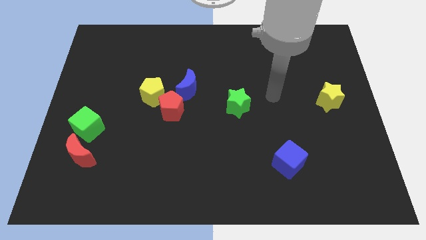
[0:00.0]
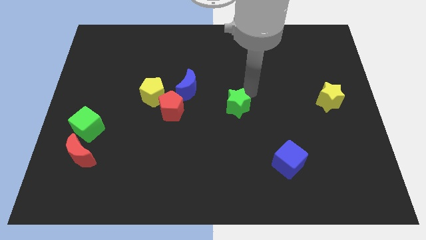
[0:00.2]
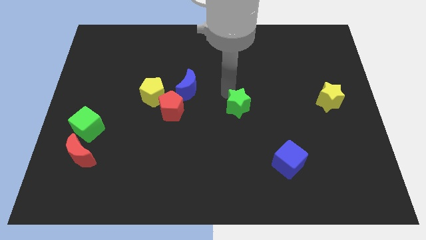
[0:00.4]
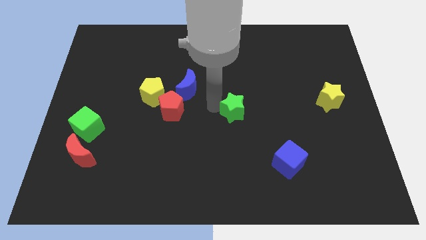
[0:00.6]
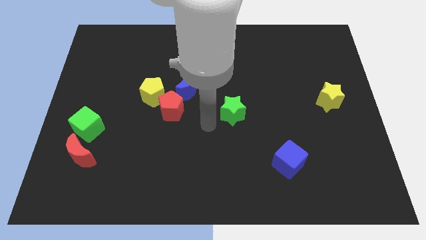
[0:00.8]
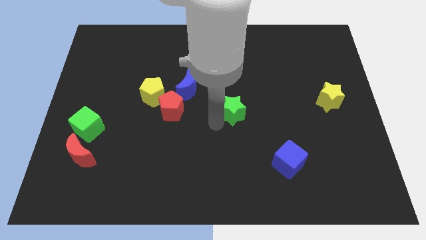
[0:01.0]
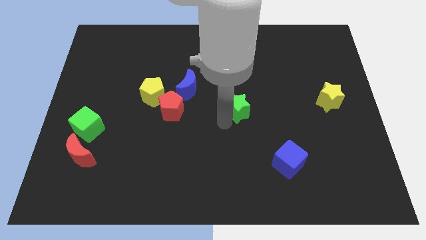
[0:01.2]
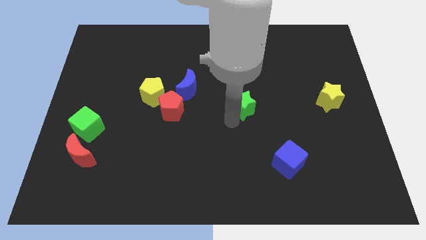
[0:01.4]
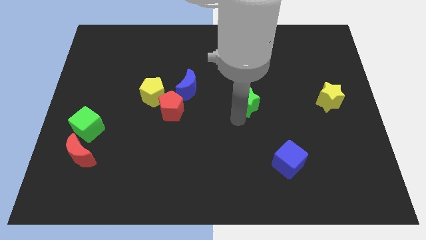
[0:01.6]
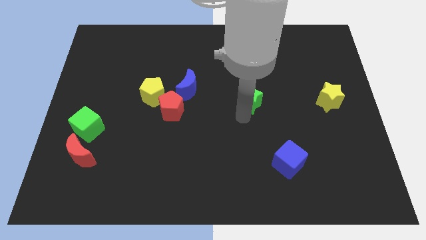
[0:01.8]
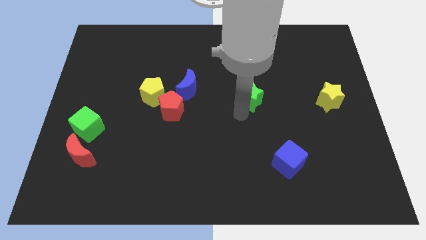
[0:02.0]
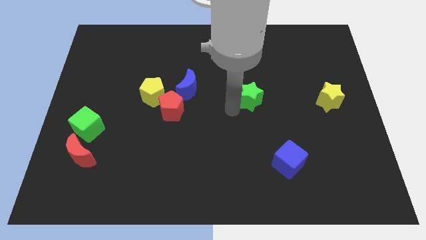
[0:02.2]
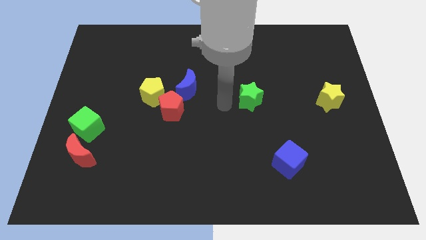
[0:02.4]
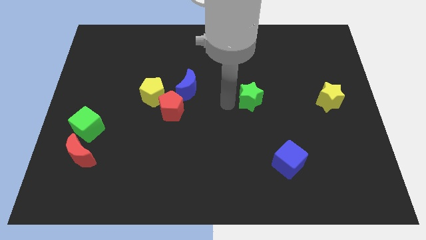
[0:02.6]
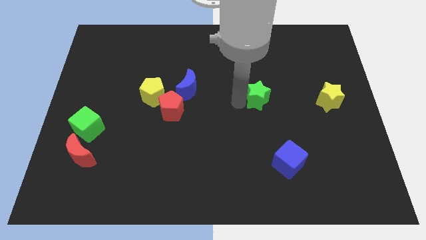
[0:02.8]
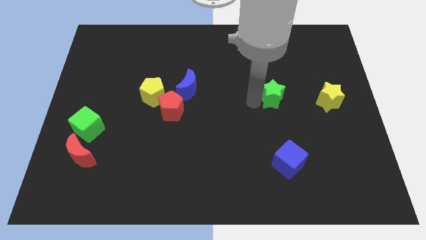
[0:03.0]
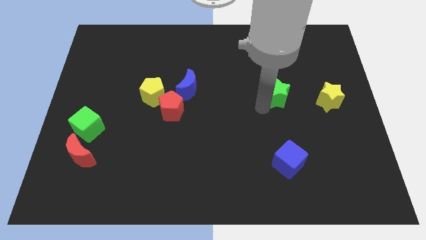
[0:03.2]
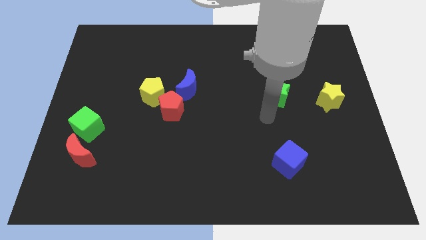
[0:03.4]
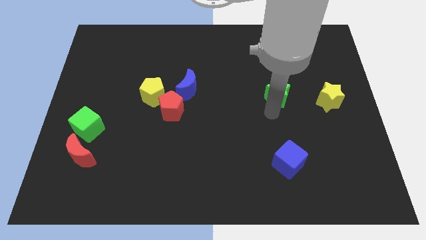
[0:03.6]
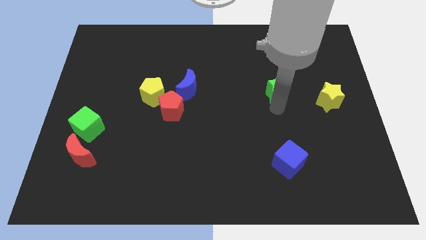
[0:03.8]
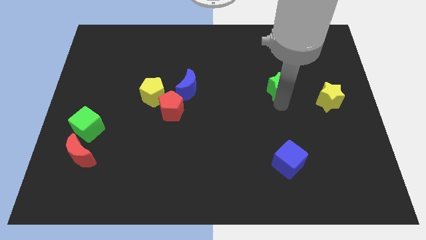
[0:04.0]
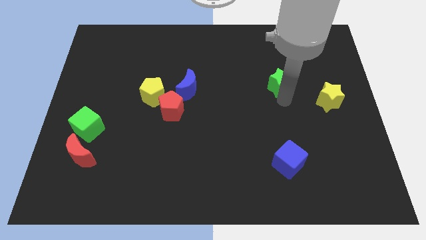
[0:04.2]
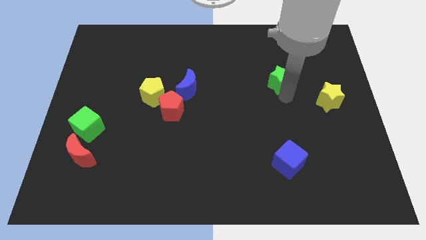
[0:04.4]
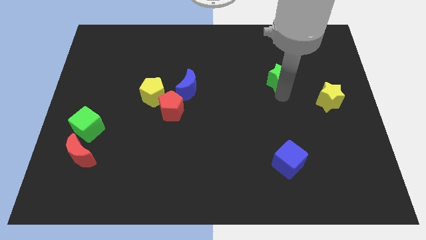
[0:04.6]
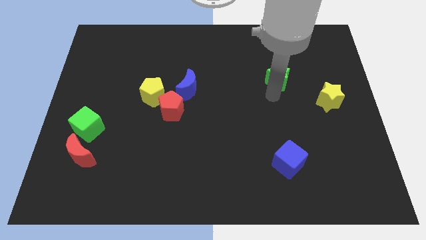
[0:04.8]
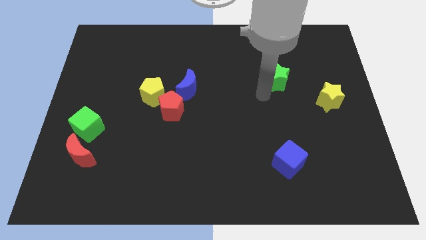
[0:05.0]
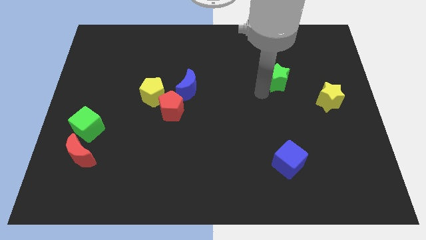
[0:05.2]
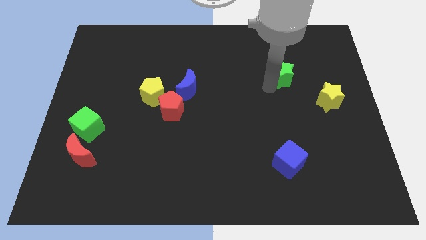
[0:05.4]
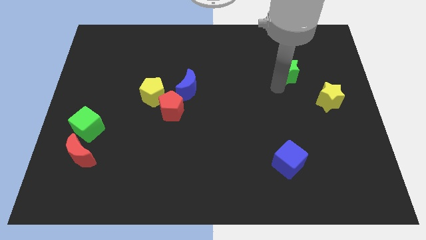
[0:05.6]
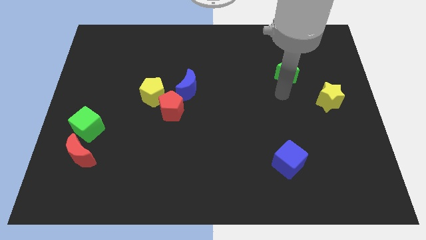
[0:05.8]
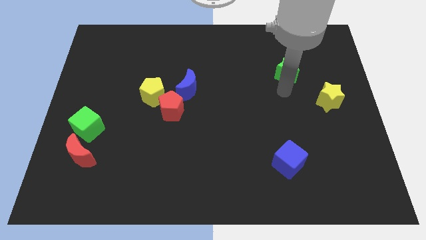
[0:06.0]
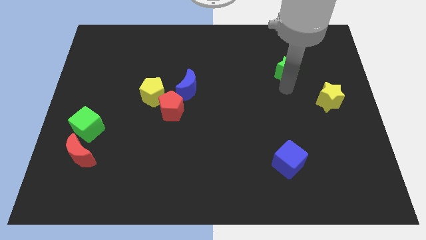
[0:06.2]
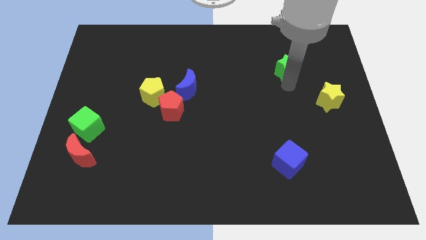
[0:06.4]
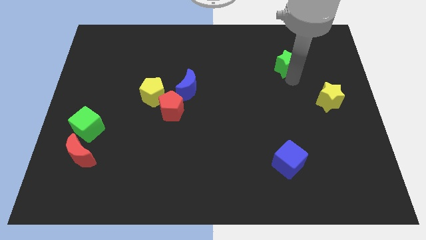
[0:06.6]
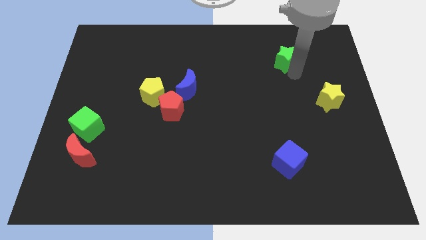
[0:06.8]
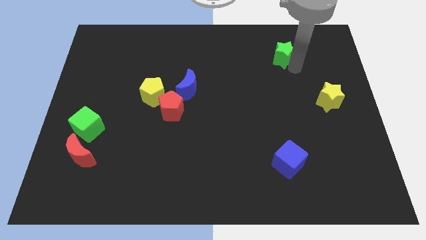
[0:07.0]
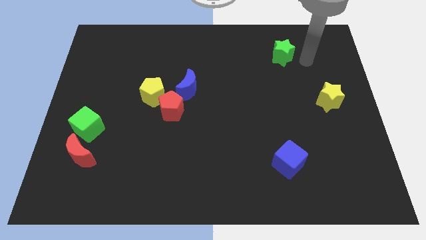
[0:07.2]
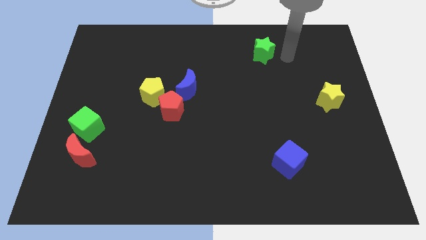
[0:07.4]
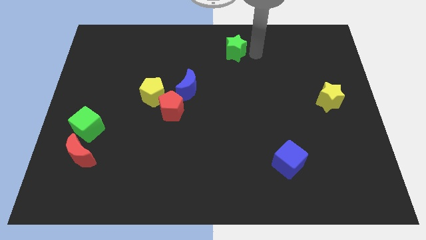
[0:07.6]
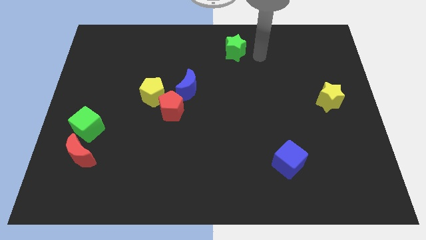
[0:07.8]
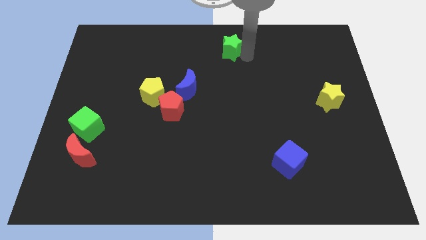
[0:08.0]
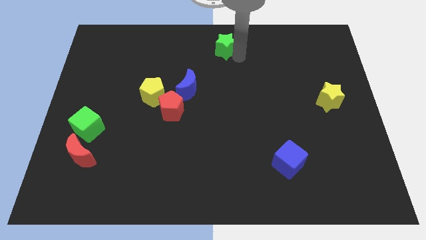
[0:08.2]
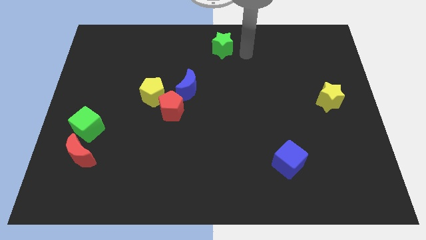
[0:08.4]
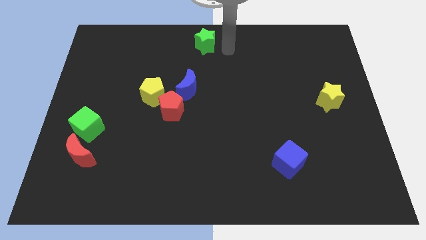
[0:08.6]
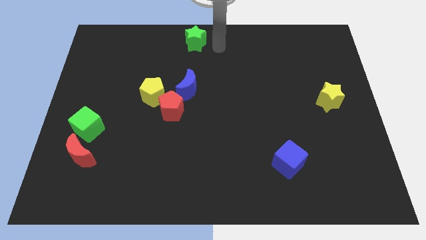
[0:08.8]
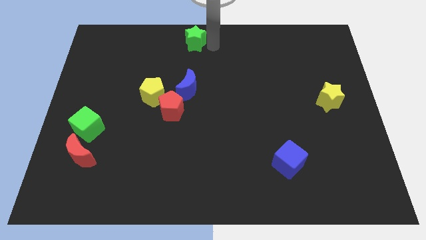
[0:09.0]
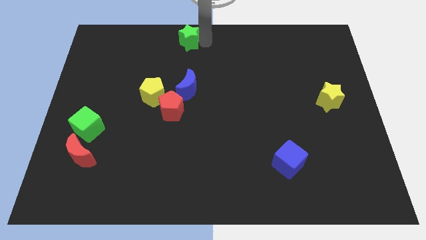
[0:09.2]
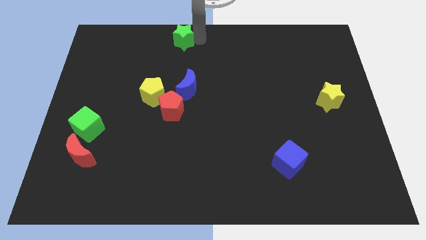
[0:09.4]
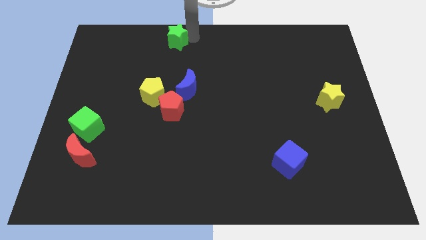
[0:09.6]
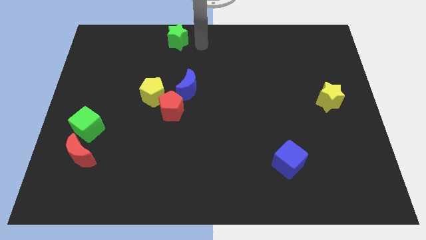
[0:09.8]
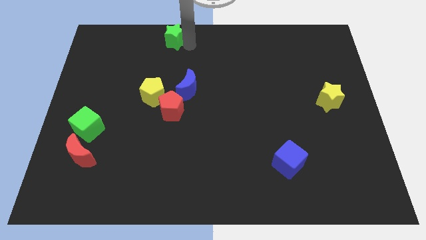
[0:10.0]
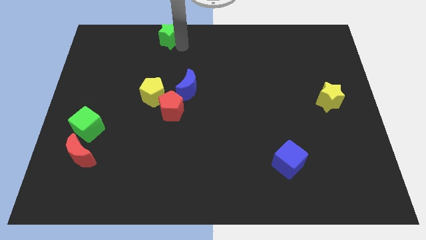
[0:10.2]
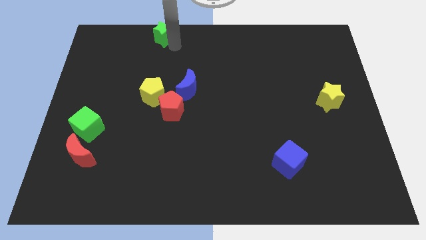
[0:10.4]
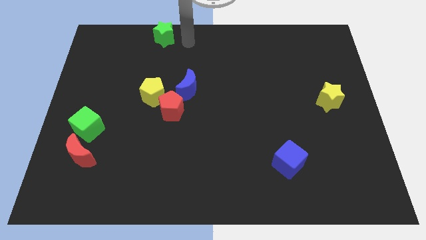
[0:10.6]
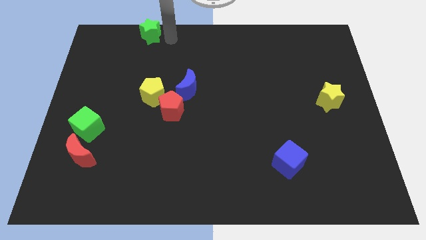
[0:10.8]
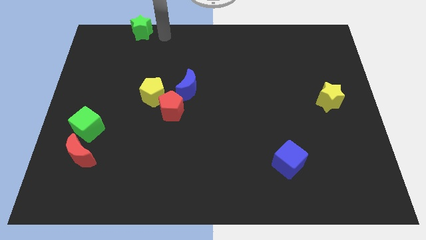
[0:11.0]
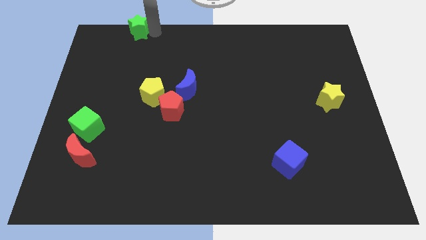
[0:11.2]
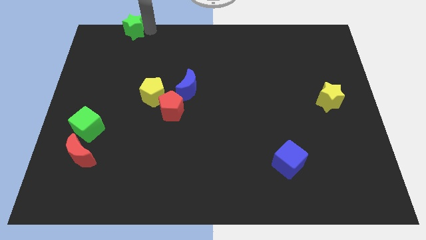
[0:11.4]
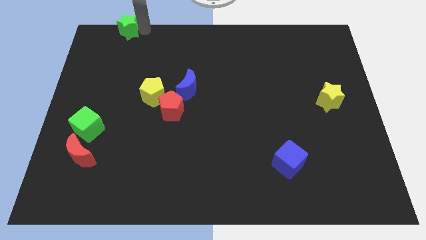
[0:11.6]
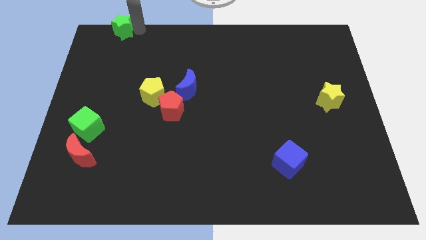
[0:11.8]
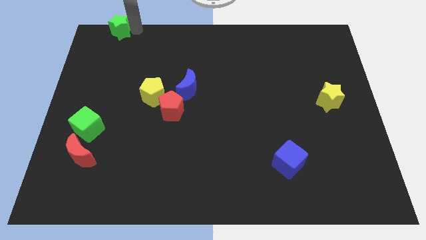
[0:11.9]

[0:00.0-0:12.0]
push the green star to the top left of the board
